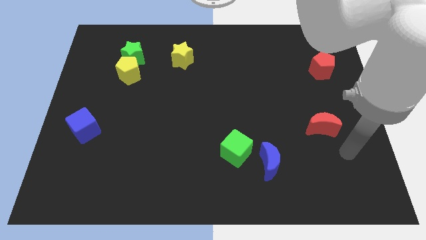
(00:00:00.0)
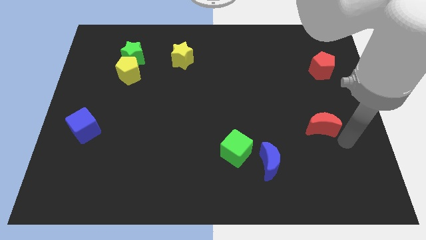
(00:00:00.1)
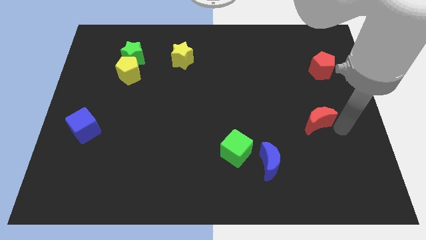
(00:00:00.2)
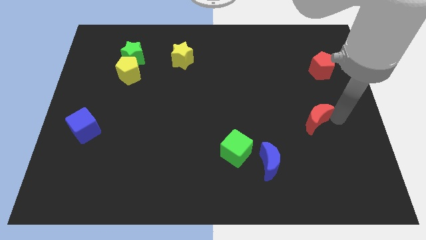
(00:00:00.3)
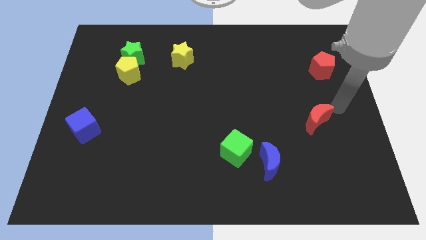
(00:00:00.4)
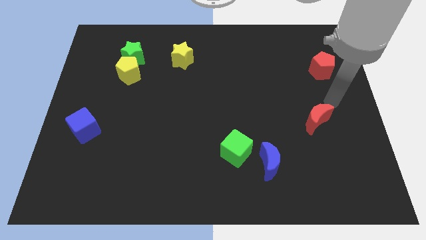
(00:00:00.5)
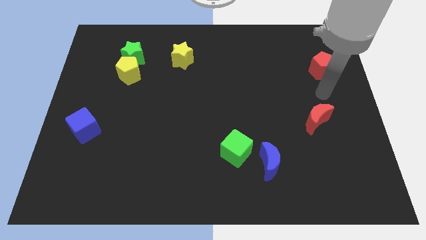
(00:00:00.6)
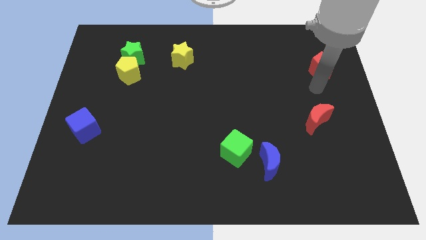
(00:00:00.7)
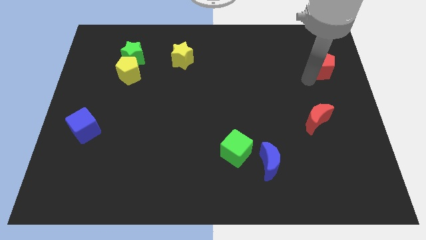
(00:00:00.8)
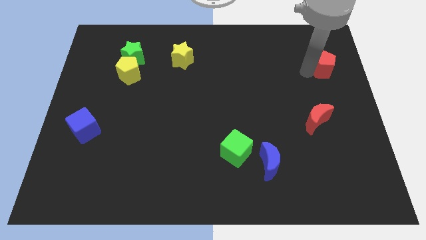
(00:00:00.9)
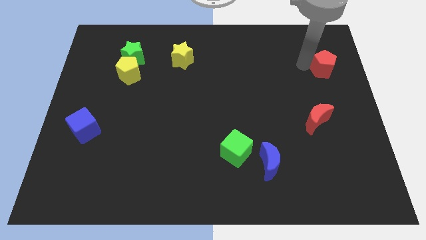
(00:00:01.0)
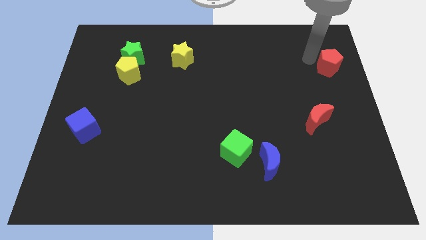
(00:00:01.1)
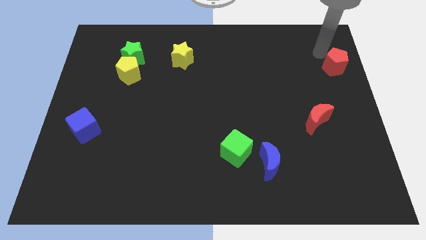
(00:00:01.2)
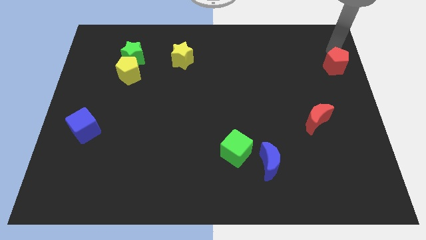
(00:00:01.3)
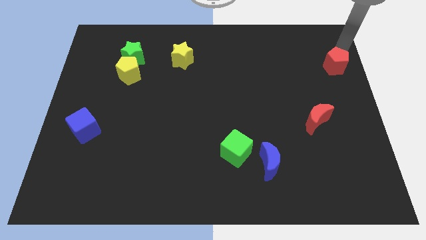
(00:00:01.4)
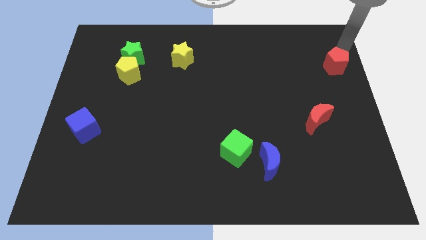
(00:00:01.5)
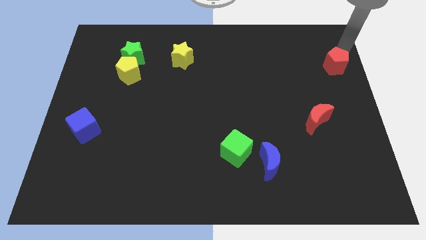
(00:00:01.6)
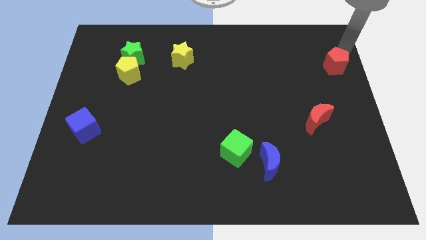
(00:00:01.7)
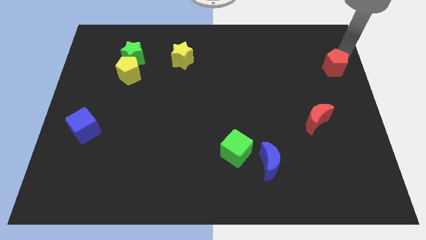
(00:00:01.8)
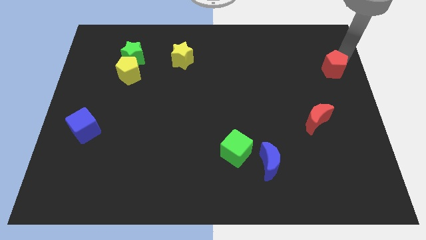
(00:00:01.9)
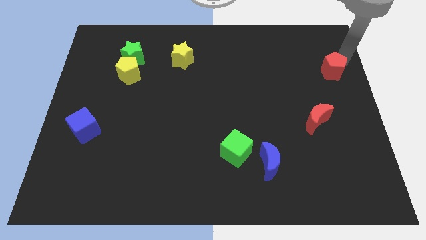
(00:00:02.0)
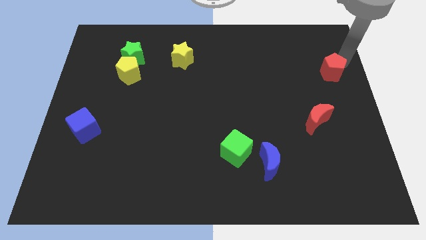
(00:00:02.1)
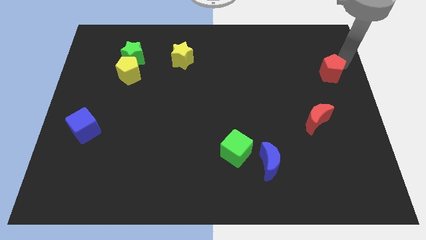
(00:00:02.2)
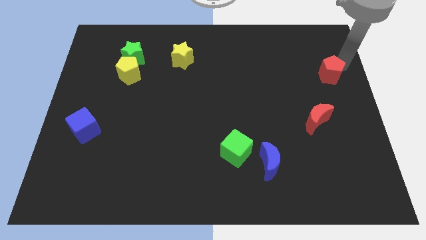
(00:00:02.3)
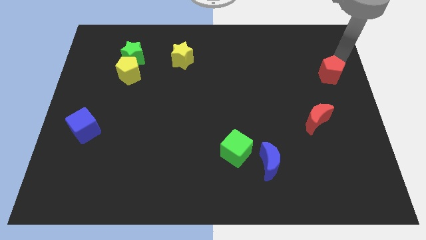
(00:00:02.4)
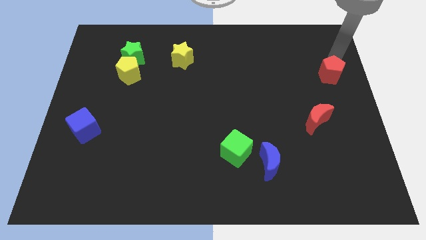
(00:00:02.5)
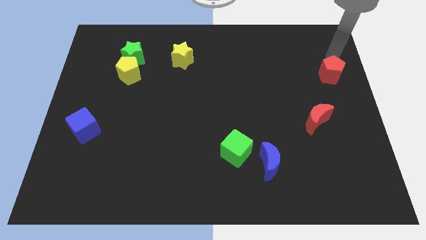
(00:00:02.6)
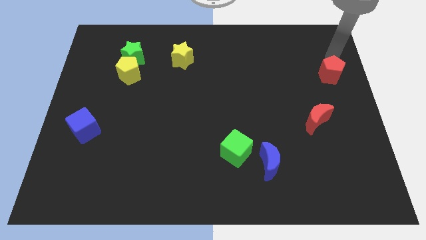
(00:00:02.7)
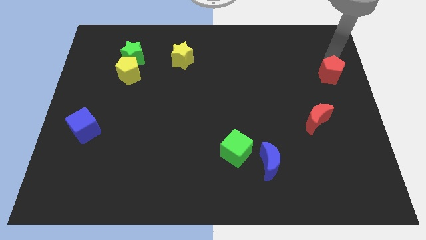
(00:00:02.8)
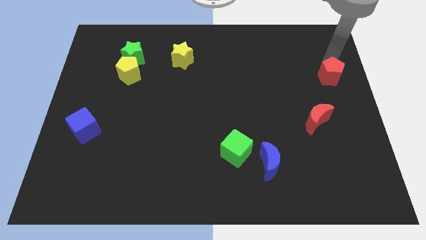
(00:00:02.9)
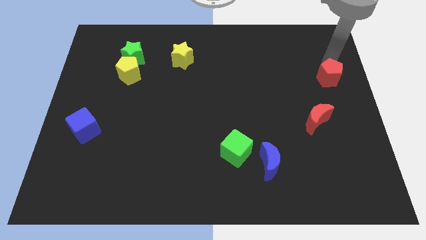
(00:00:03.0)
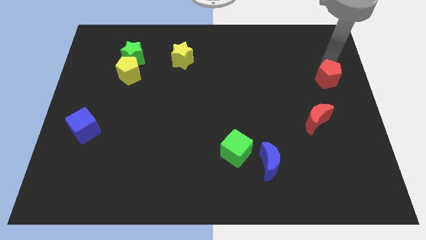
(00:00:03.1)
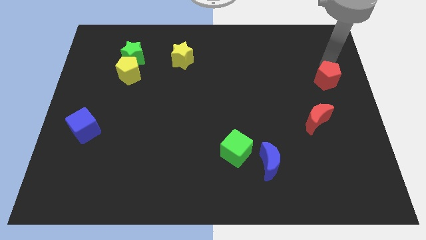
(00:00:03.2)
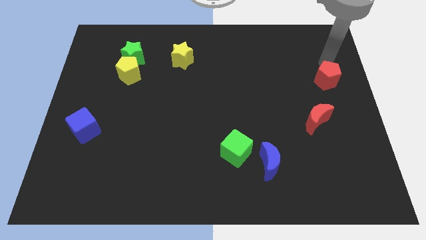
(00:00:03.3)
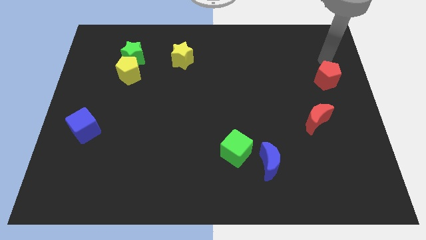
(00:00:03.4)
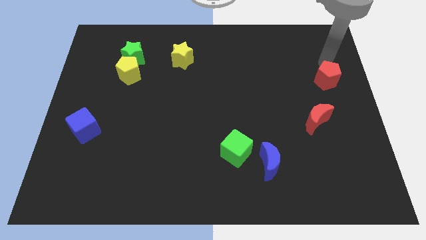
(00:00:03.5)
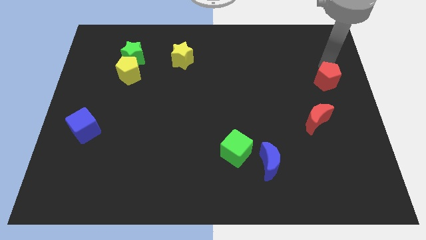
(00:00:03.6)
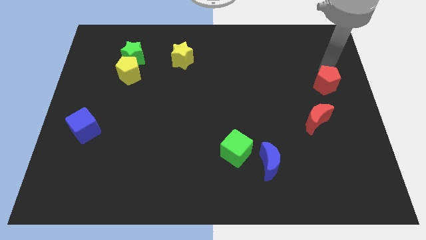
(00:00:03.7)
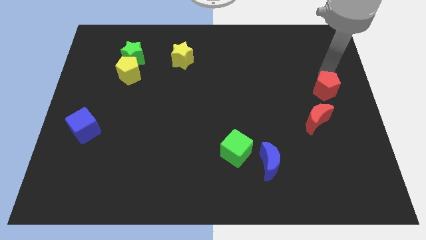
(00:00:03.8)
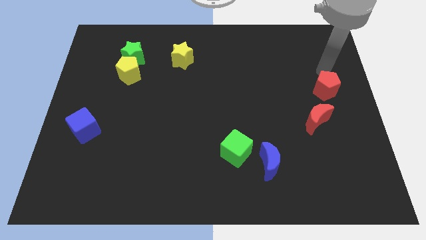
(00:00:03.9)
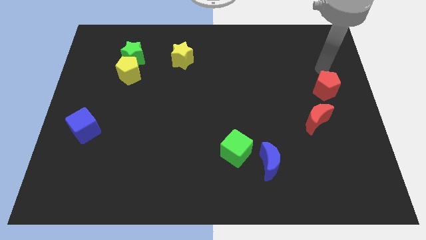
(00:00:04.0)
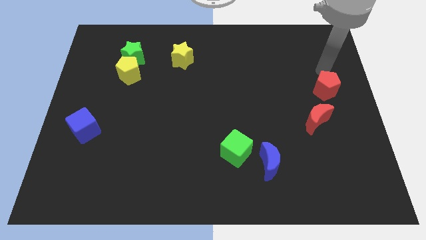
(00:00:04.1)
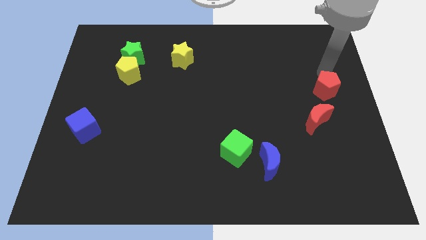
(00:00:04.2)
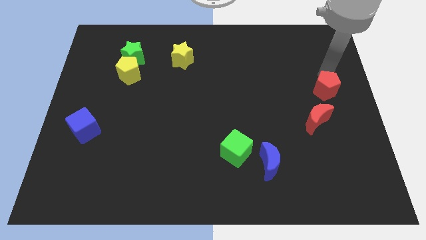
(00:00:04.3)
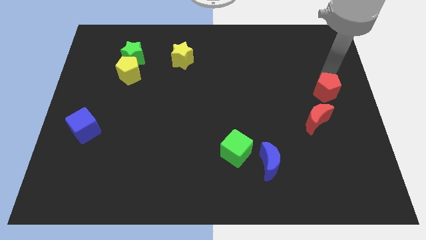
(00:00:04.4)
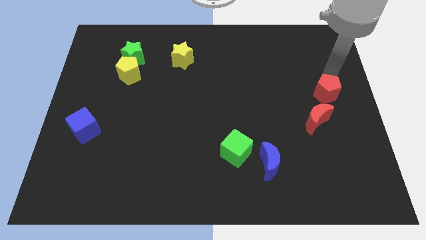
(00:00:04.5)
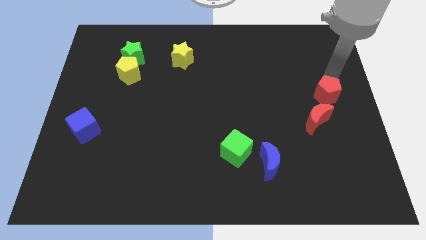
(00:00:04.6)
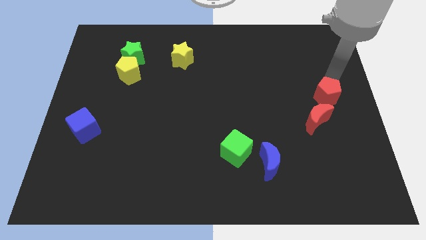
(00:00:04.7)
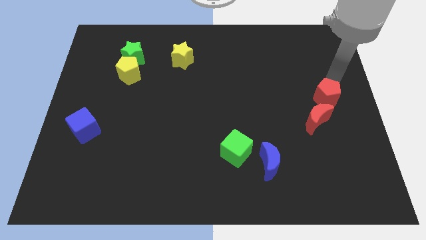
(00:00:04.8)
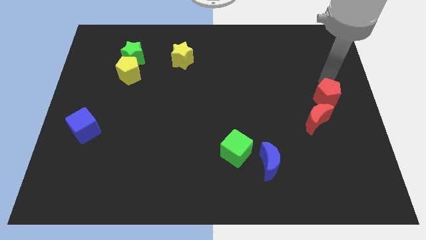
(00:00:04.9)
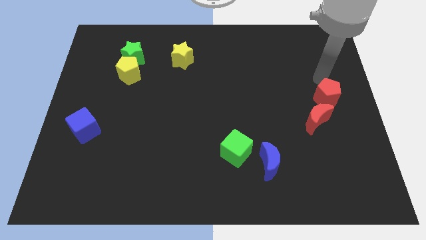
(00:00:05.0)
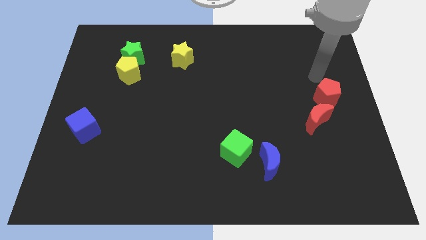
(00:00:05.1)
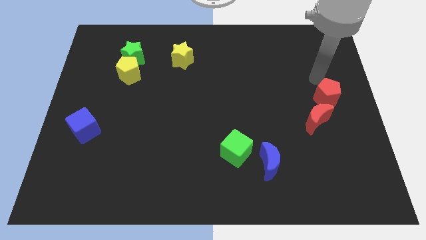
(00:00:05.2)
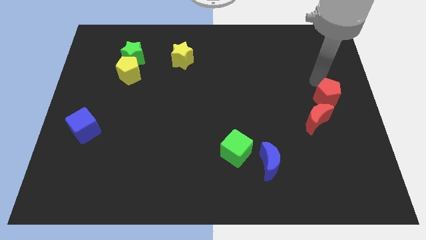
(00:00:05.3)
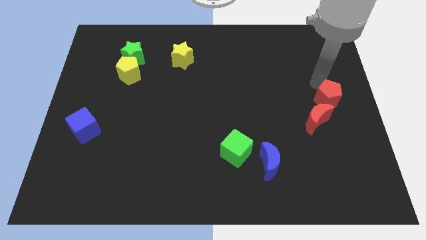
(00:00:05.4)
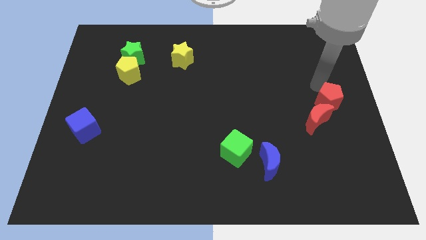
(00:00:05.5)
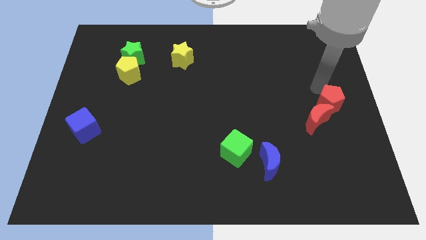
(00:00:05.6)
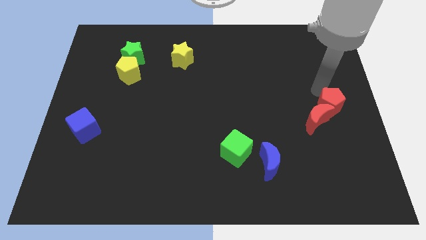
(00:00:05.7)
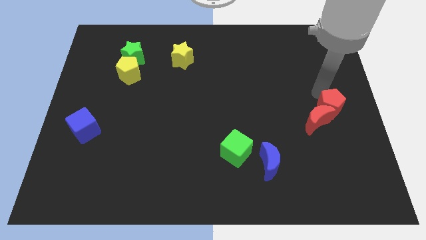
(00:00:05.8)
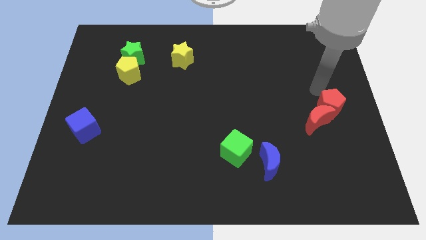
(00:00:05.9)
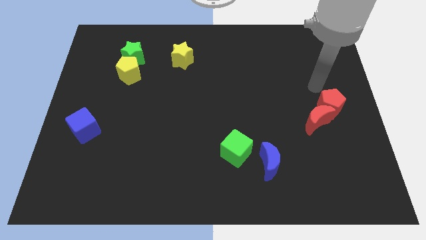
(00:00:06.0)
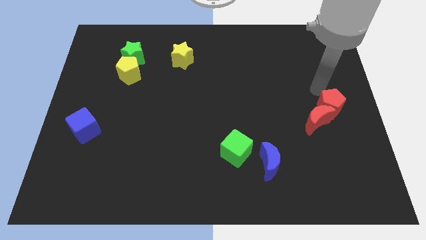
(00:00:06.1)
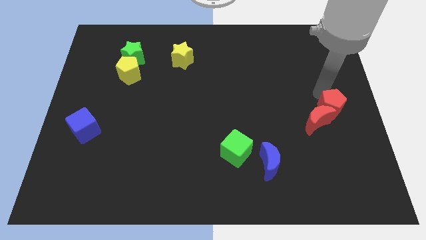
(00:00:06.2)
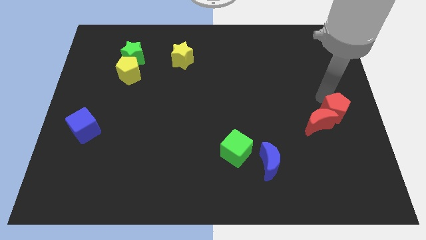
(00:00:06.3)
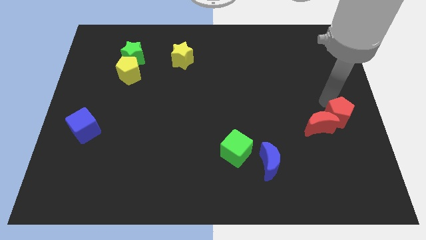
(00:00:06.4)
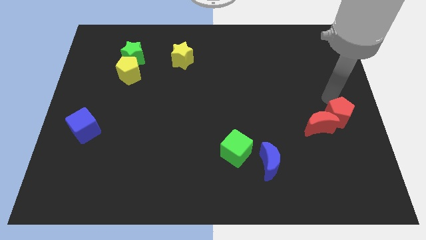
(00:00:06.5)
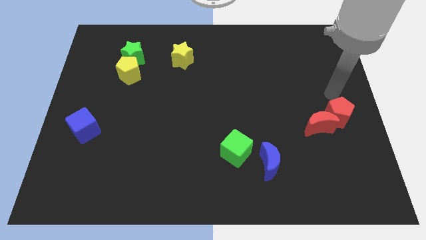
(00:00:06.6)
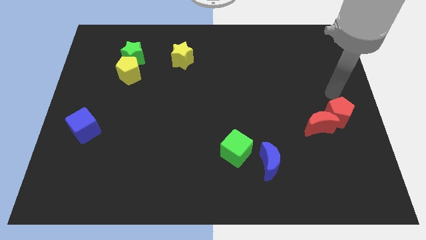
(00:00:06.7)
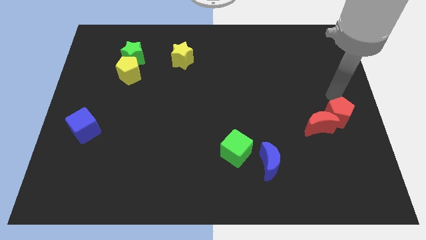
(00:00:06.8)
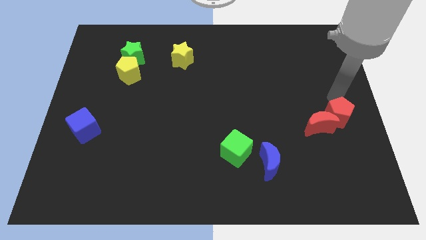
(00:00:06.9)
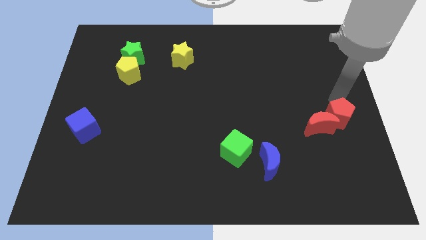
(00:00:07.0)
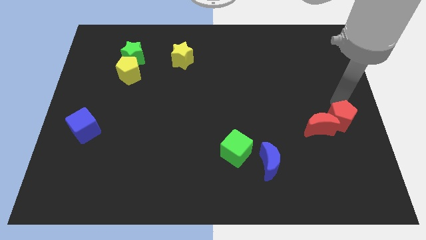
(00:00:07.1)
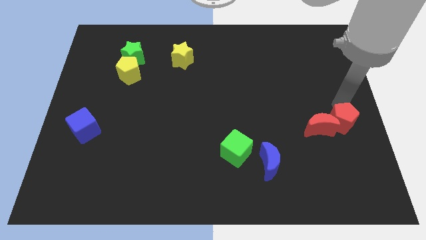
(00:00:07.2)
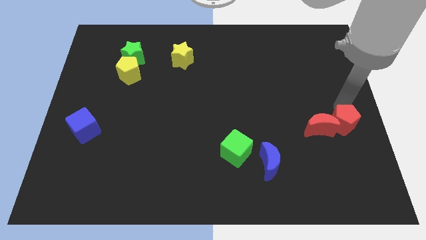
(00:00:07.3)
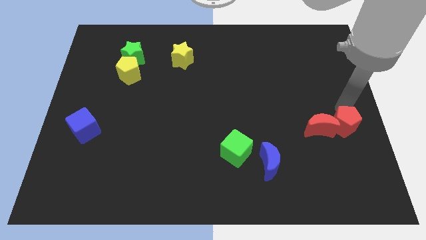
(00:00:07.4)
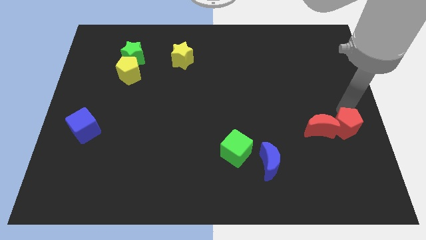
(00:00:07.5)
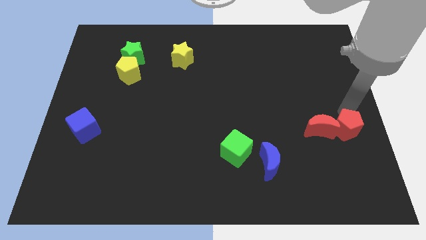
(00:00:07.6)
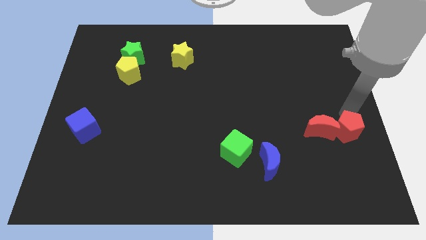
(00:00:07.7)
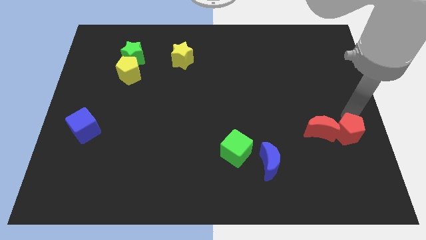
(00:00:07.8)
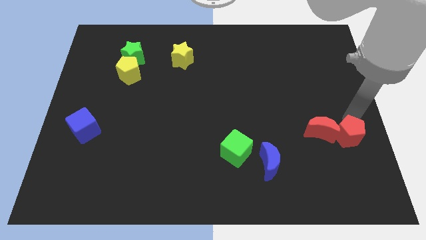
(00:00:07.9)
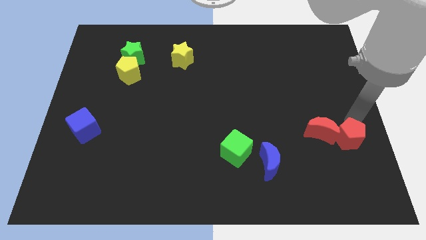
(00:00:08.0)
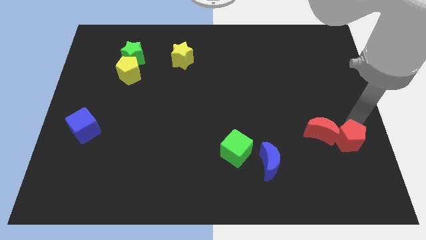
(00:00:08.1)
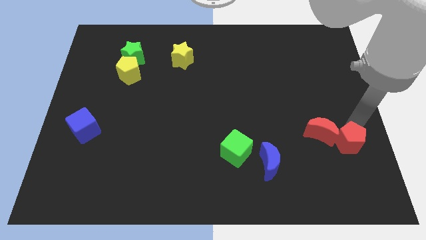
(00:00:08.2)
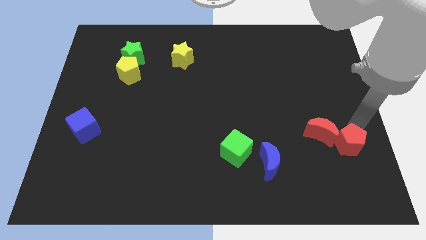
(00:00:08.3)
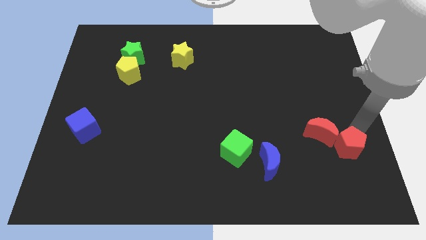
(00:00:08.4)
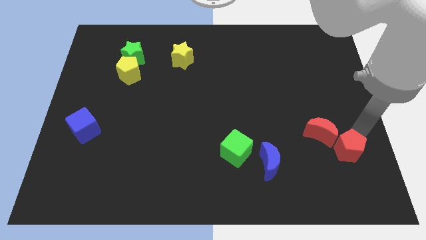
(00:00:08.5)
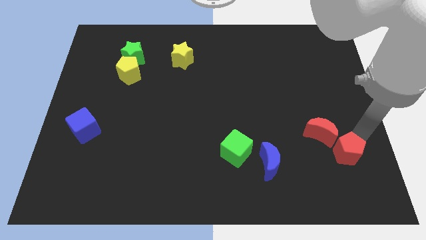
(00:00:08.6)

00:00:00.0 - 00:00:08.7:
move the red pentagon to the bottom of the red moon
